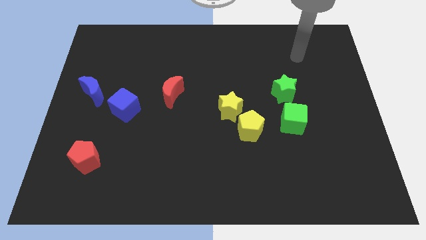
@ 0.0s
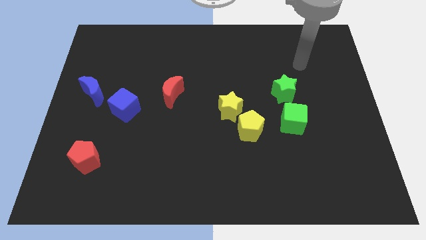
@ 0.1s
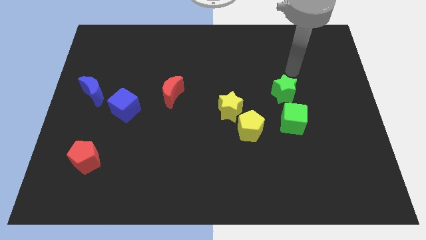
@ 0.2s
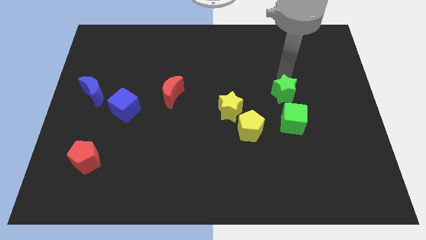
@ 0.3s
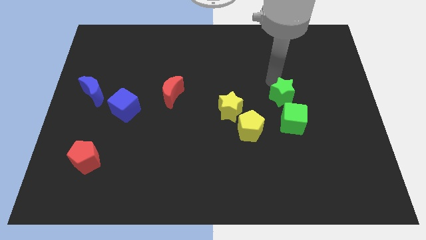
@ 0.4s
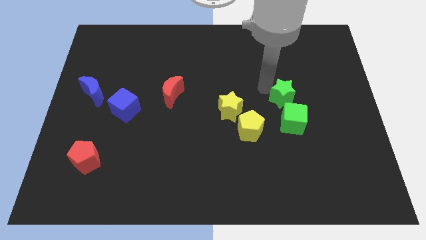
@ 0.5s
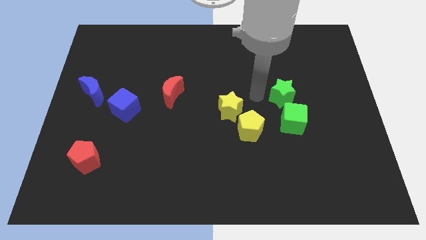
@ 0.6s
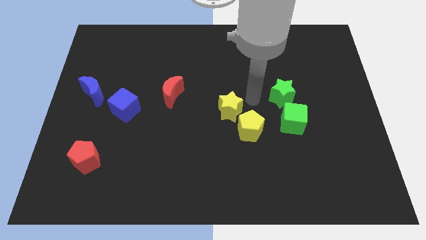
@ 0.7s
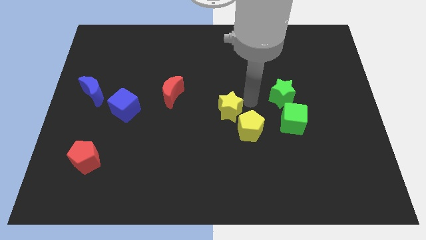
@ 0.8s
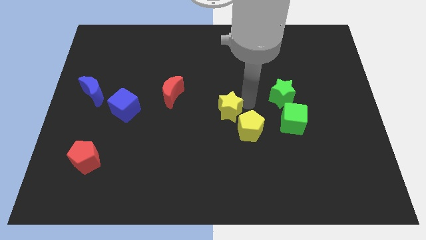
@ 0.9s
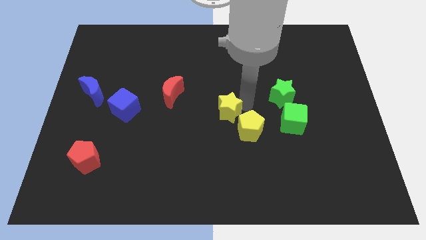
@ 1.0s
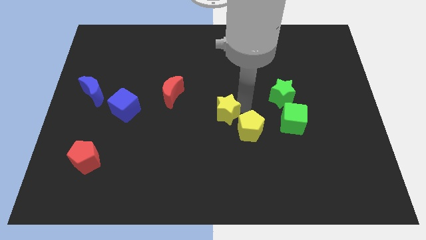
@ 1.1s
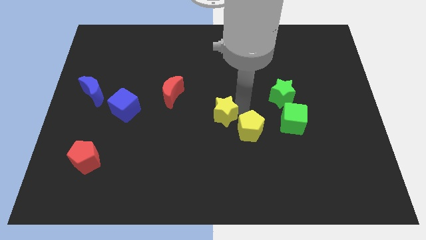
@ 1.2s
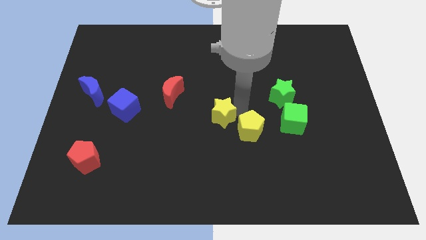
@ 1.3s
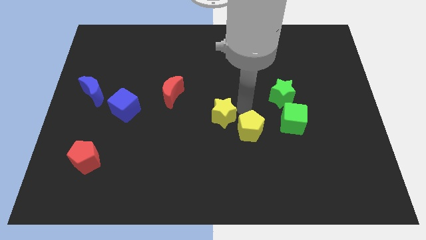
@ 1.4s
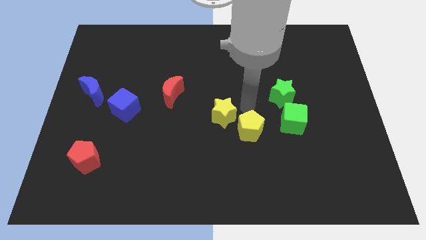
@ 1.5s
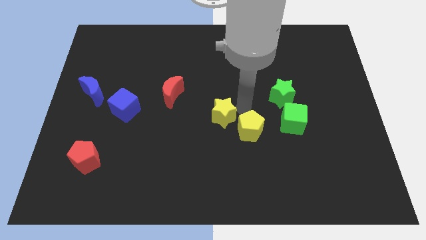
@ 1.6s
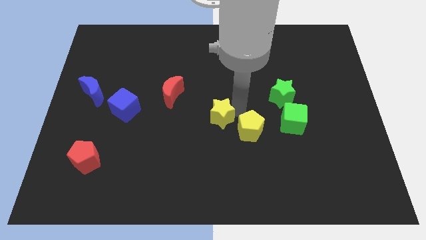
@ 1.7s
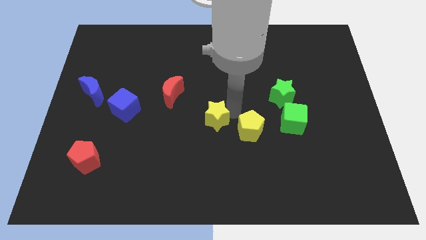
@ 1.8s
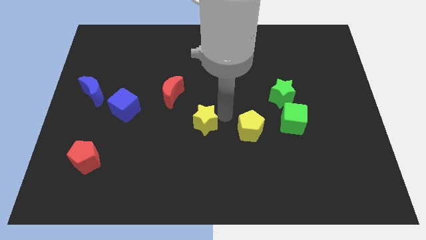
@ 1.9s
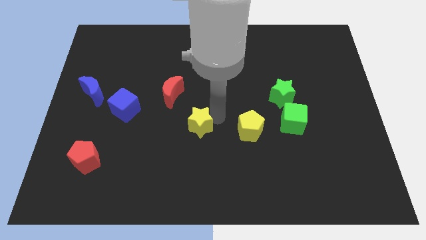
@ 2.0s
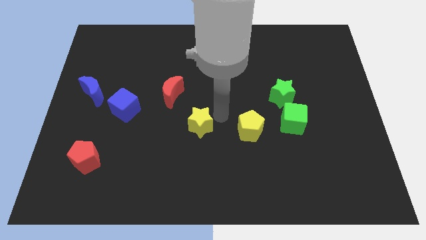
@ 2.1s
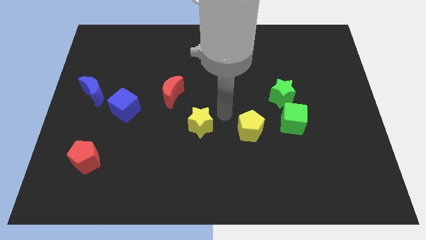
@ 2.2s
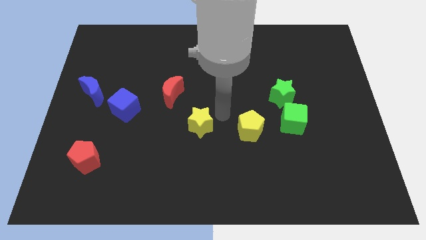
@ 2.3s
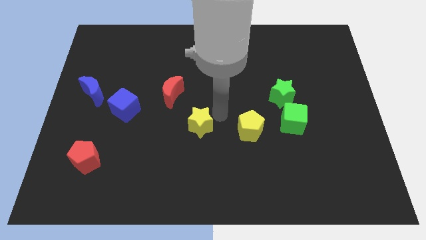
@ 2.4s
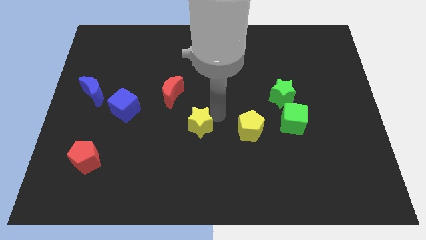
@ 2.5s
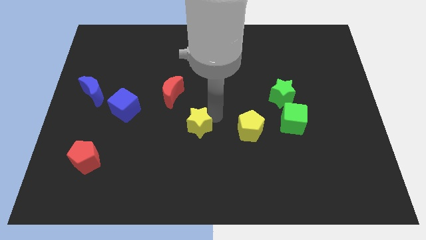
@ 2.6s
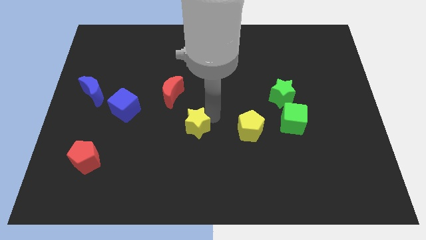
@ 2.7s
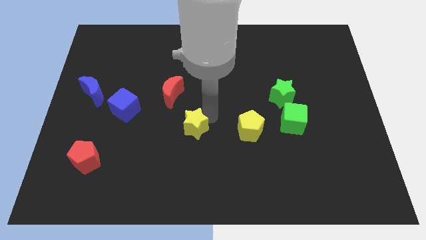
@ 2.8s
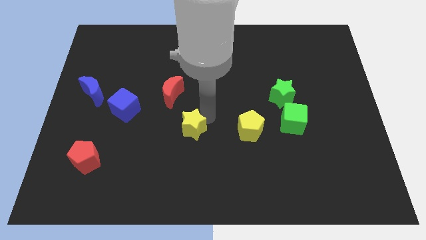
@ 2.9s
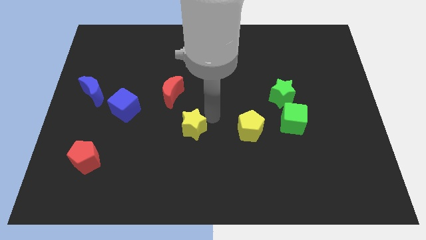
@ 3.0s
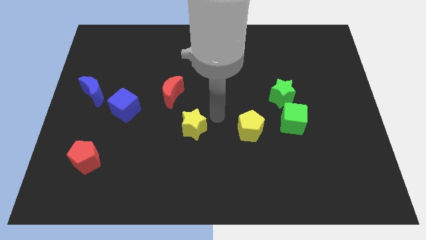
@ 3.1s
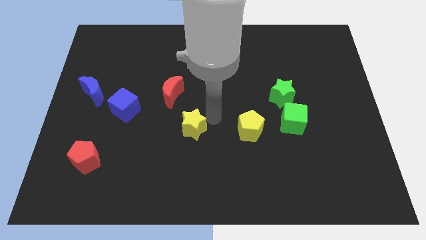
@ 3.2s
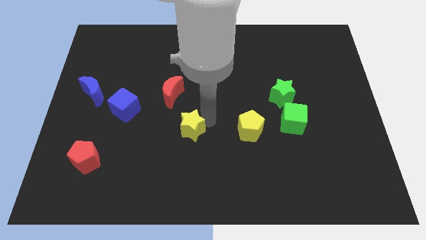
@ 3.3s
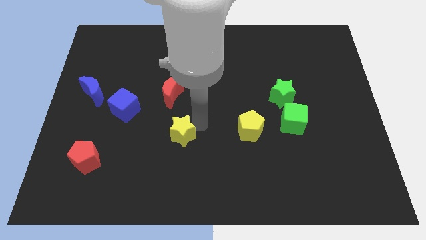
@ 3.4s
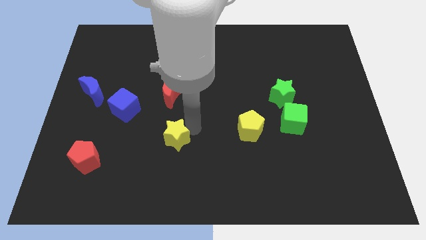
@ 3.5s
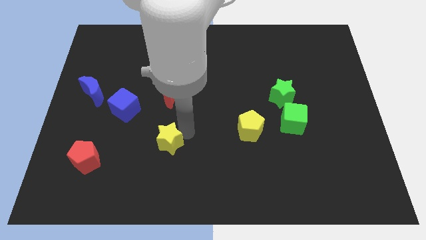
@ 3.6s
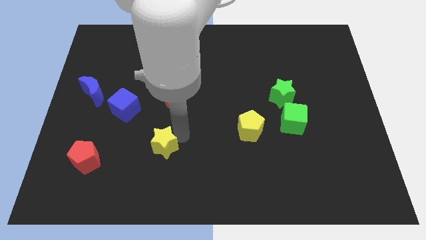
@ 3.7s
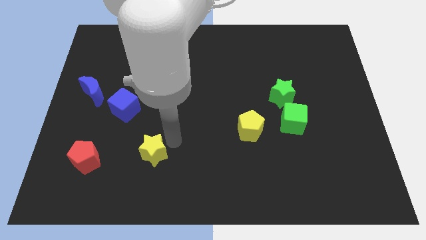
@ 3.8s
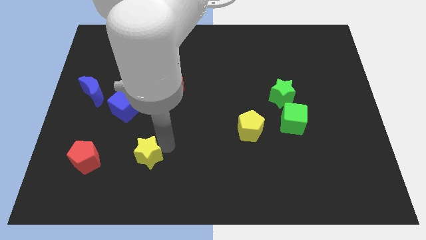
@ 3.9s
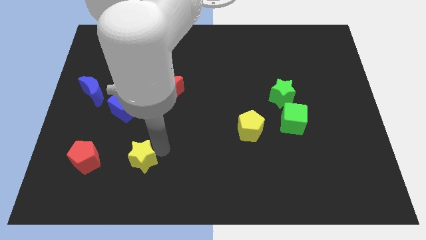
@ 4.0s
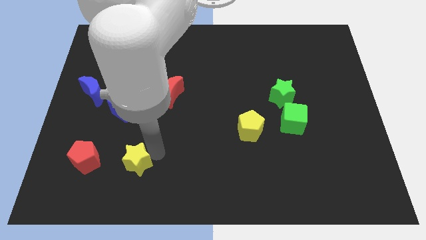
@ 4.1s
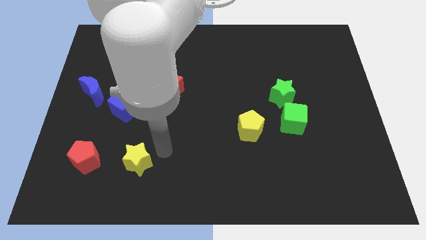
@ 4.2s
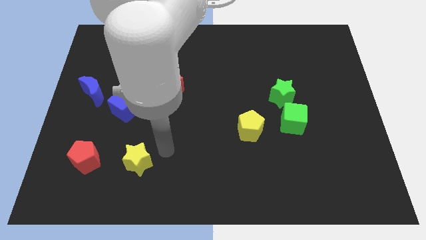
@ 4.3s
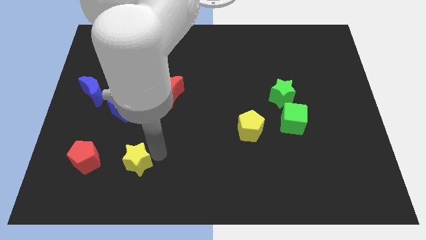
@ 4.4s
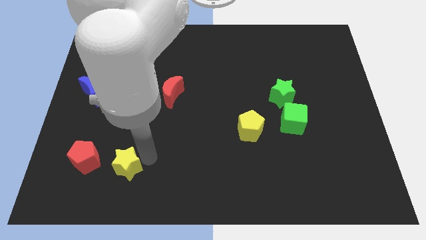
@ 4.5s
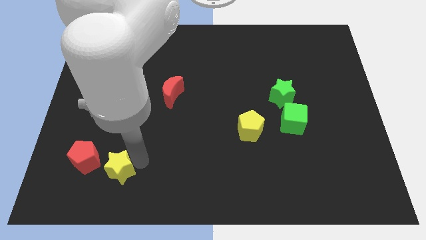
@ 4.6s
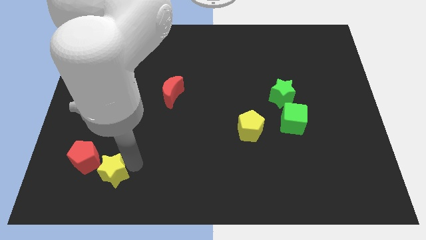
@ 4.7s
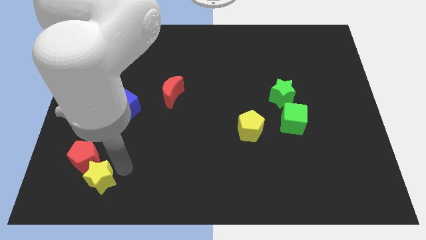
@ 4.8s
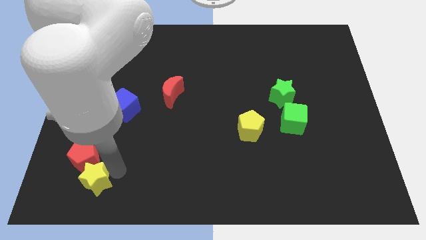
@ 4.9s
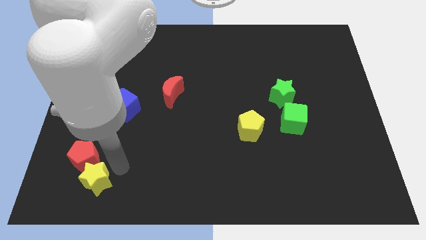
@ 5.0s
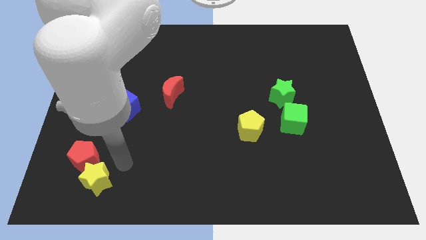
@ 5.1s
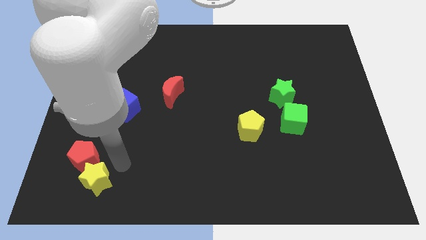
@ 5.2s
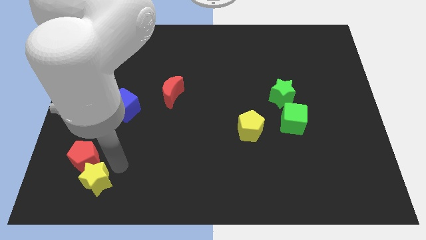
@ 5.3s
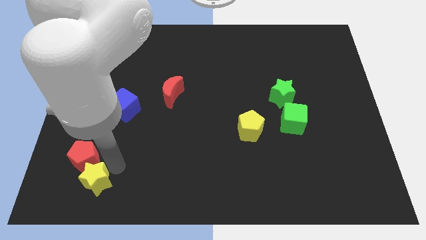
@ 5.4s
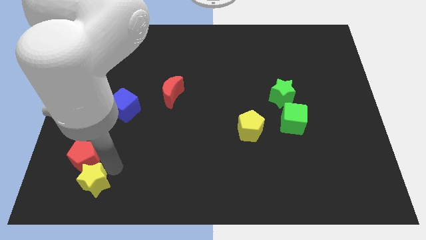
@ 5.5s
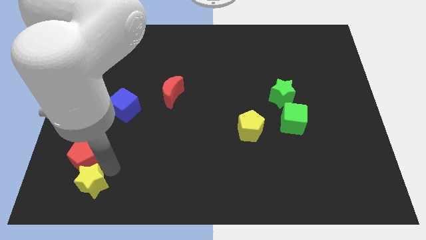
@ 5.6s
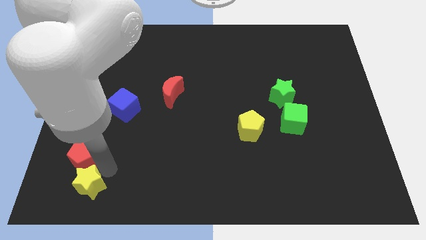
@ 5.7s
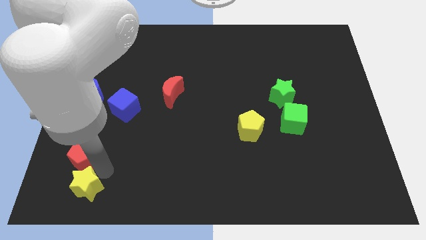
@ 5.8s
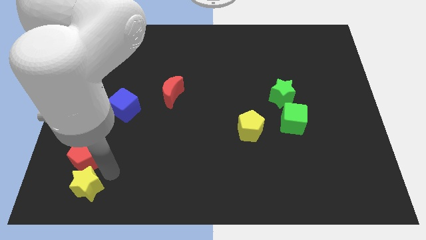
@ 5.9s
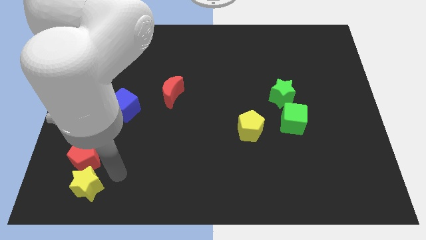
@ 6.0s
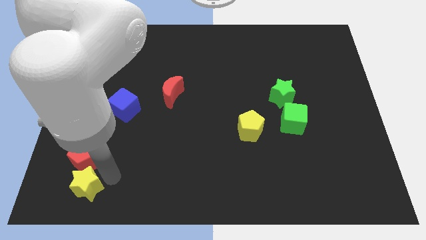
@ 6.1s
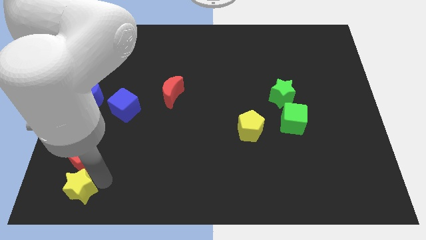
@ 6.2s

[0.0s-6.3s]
put the yellow star to the bottom left corner
